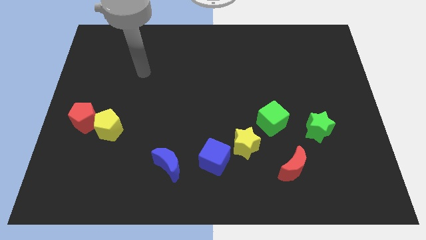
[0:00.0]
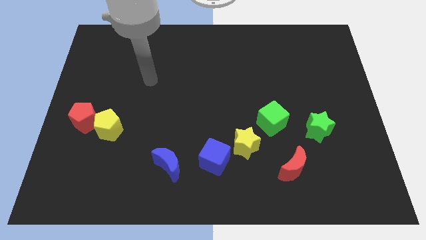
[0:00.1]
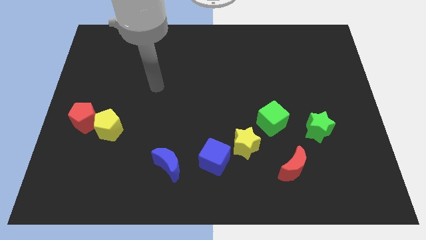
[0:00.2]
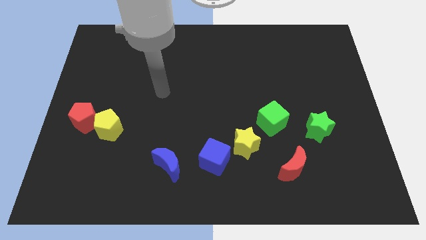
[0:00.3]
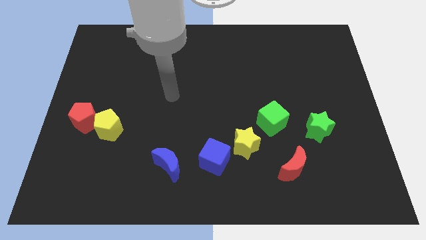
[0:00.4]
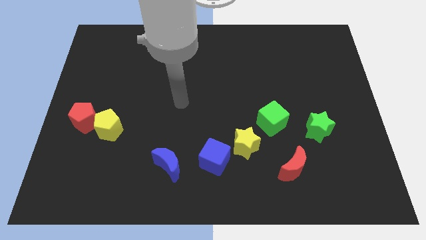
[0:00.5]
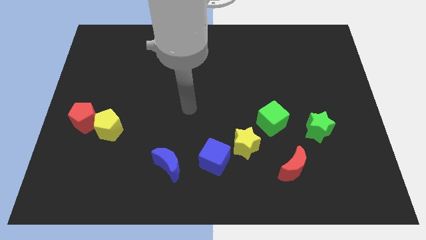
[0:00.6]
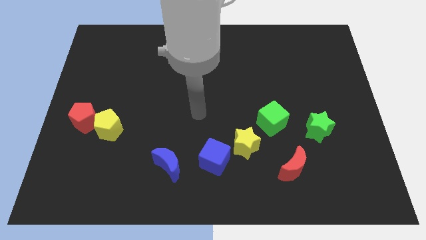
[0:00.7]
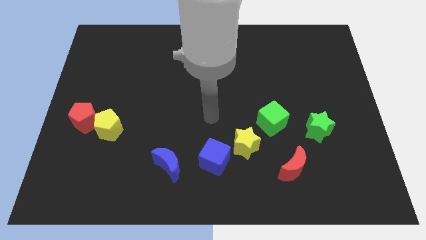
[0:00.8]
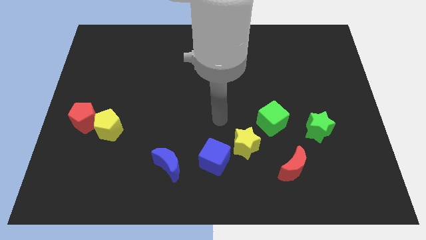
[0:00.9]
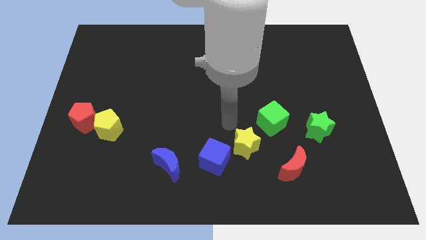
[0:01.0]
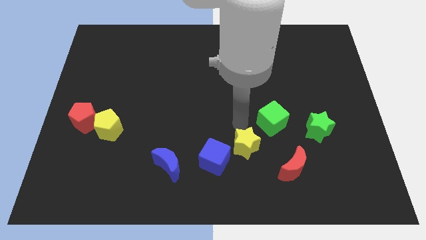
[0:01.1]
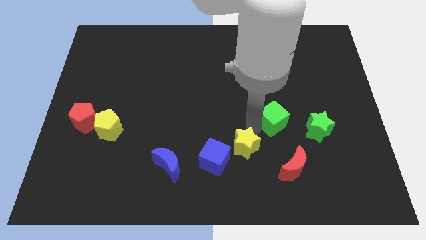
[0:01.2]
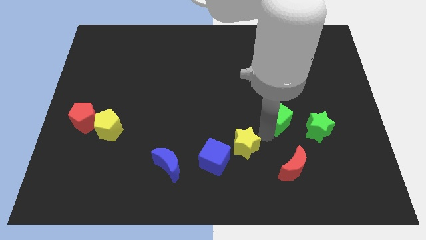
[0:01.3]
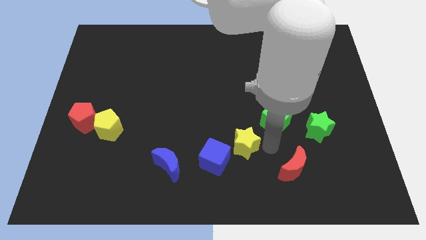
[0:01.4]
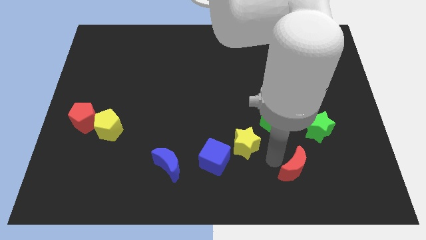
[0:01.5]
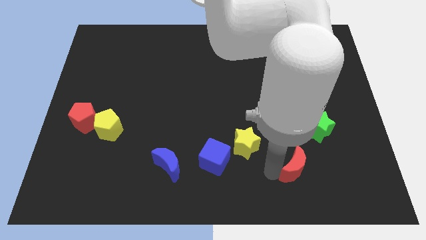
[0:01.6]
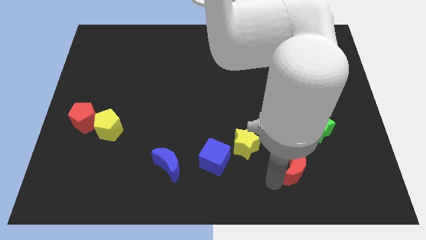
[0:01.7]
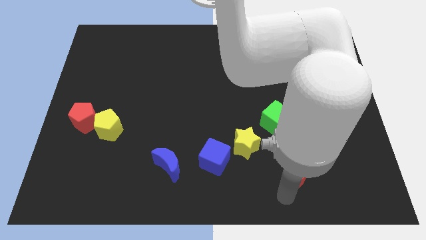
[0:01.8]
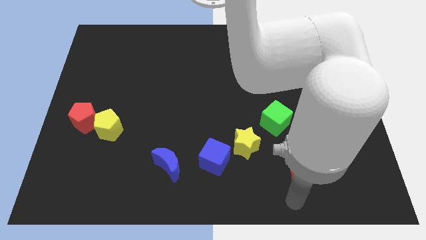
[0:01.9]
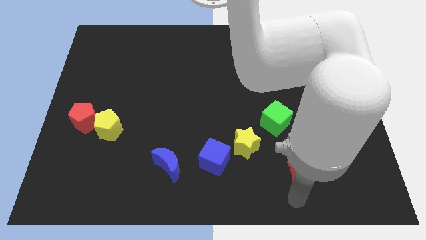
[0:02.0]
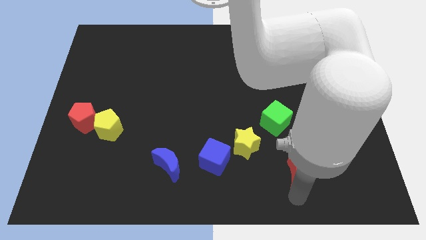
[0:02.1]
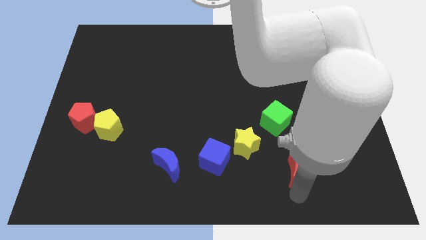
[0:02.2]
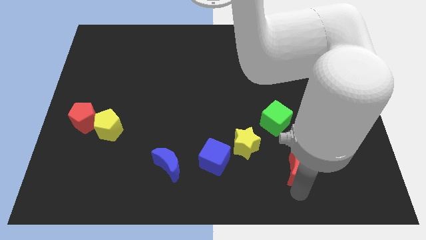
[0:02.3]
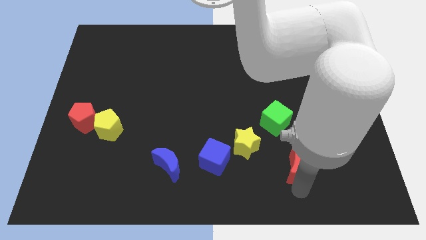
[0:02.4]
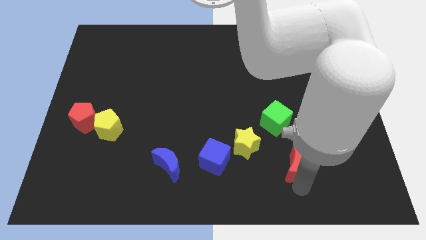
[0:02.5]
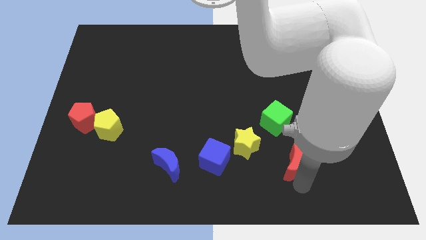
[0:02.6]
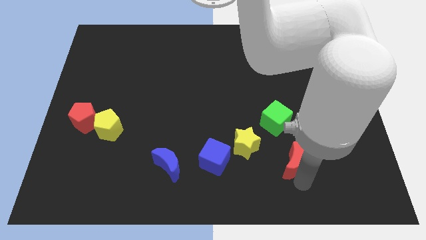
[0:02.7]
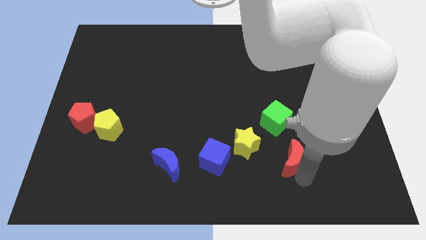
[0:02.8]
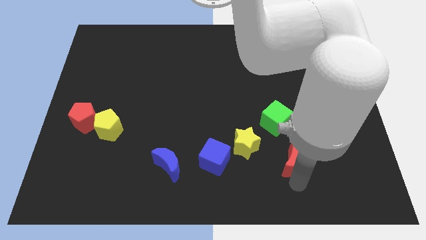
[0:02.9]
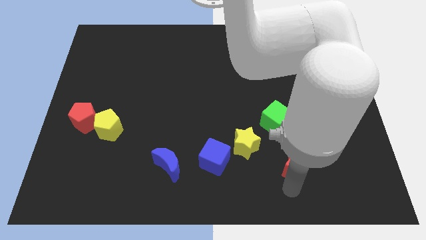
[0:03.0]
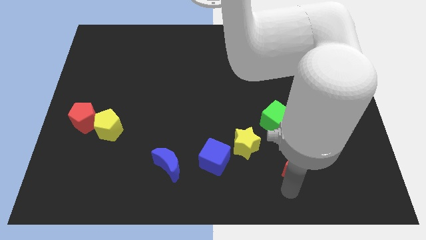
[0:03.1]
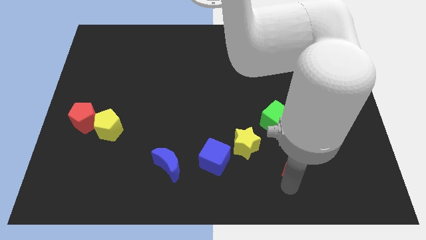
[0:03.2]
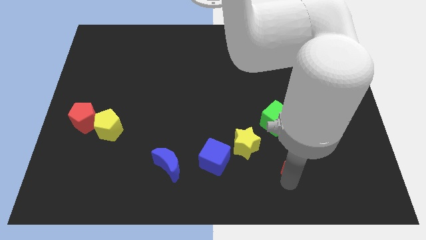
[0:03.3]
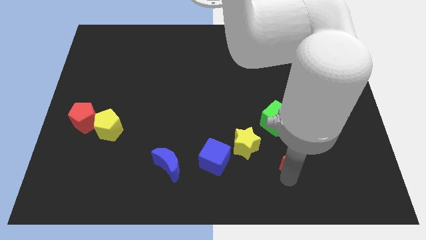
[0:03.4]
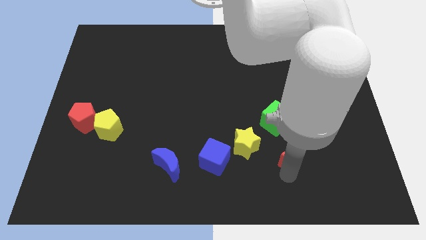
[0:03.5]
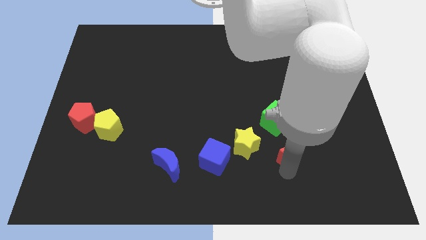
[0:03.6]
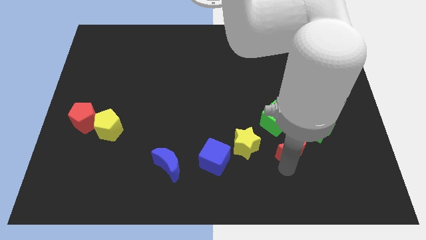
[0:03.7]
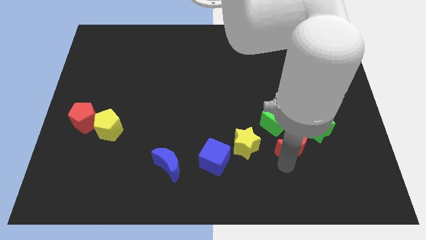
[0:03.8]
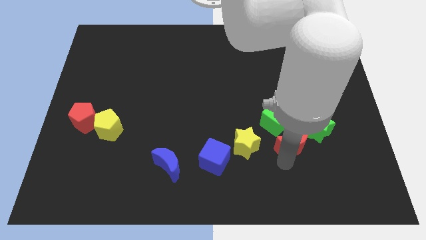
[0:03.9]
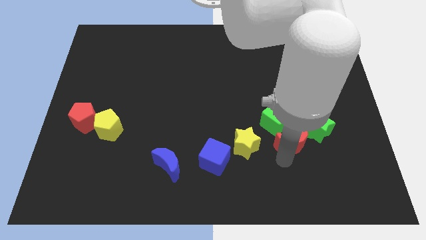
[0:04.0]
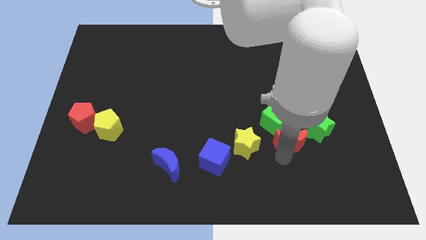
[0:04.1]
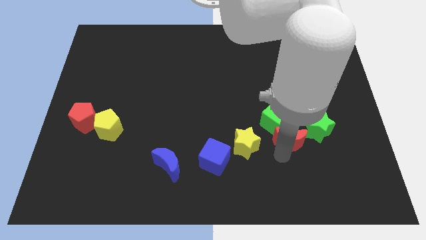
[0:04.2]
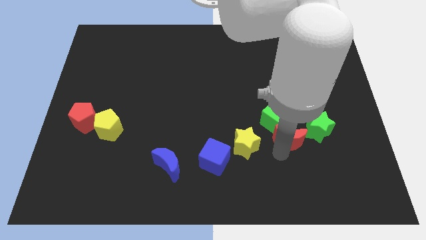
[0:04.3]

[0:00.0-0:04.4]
slide the red moon upwards a bit

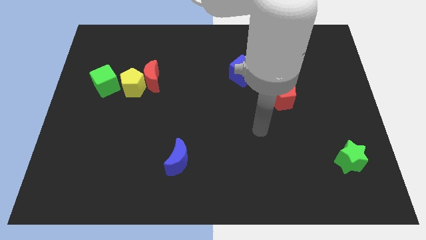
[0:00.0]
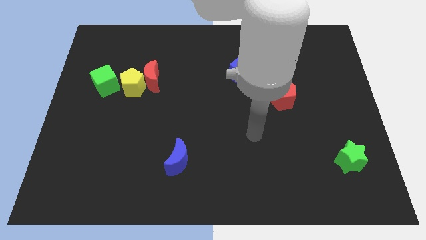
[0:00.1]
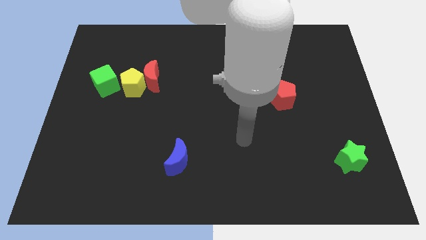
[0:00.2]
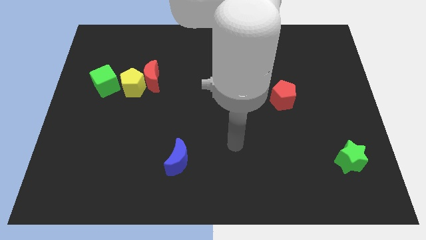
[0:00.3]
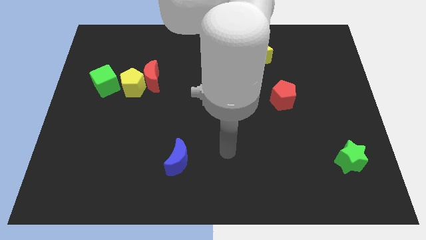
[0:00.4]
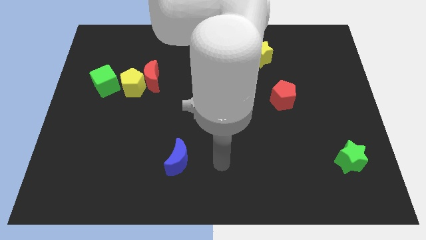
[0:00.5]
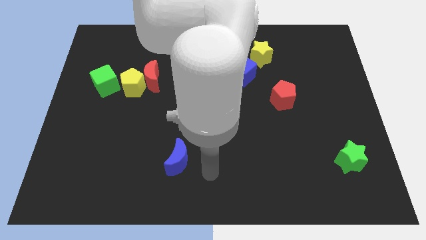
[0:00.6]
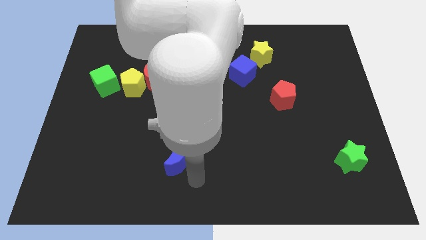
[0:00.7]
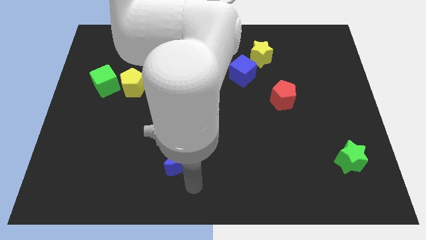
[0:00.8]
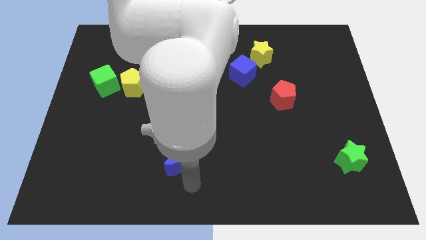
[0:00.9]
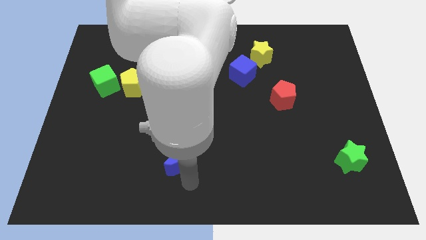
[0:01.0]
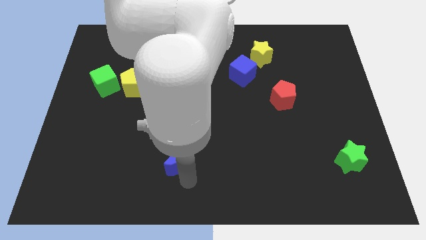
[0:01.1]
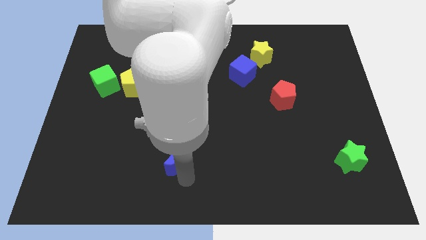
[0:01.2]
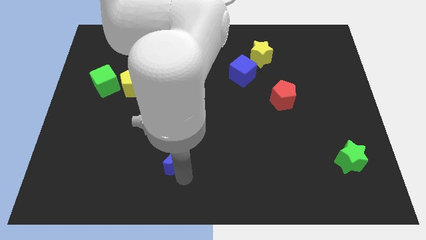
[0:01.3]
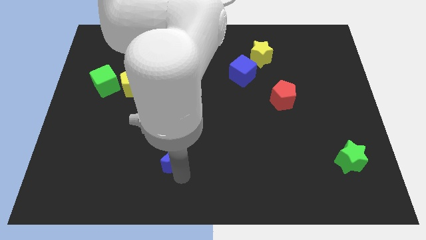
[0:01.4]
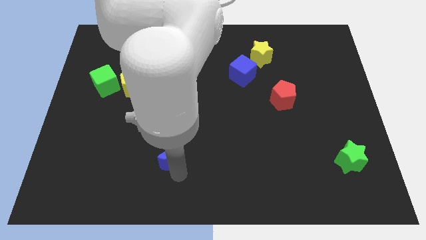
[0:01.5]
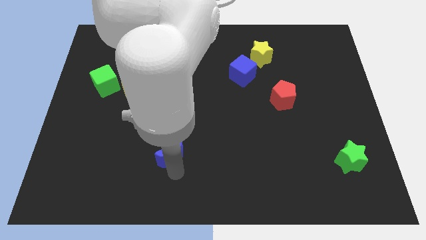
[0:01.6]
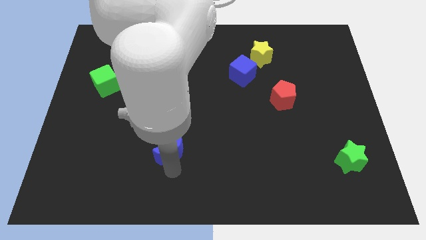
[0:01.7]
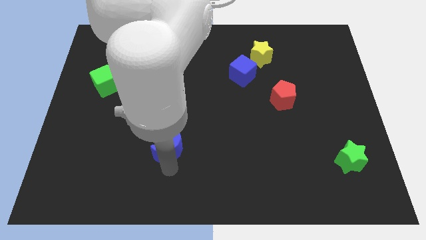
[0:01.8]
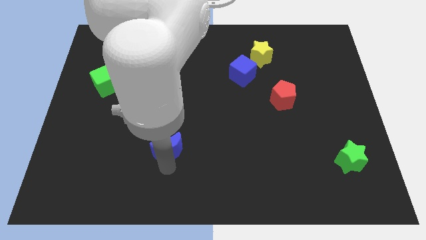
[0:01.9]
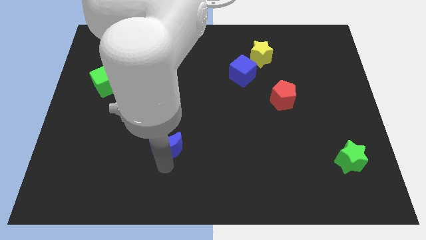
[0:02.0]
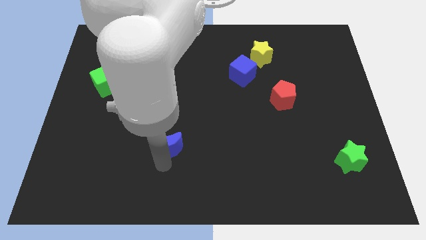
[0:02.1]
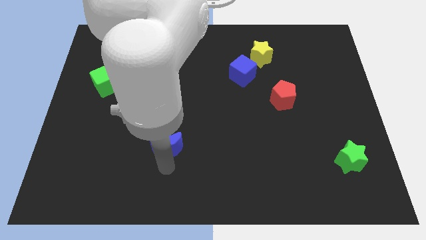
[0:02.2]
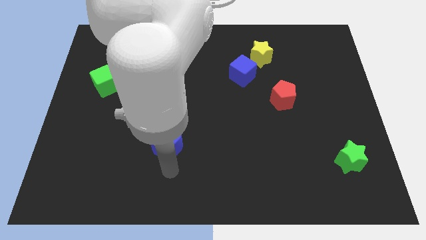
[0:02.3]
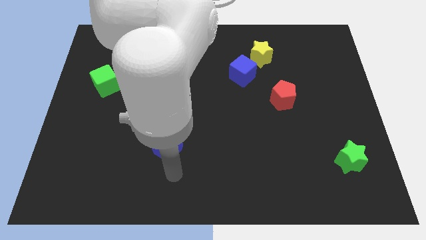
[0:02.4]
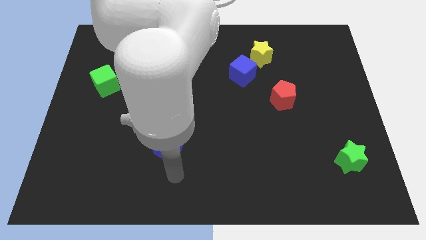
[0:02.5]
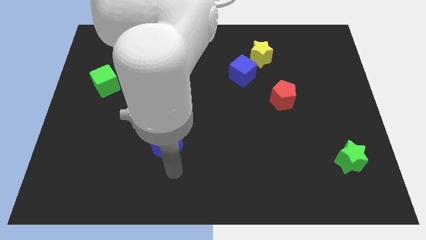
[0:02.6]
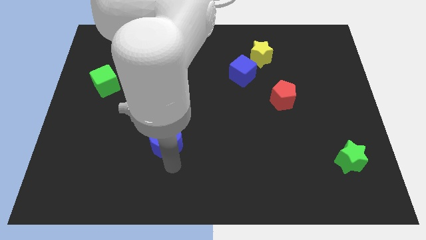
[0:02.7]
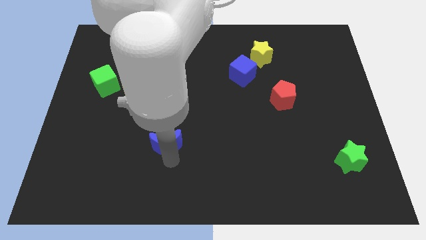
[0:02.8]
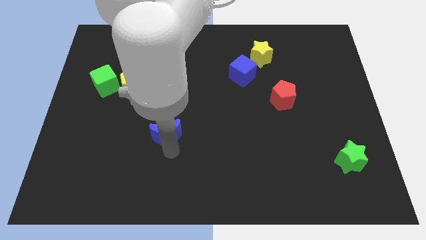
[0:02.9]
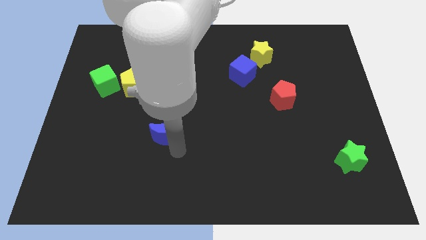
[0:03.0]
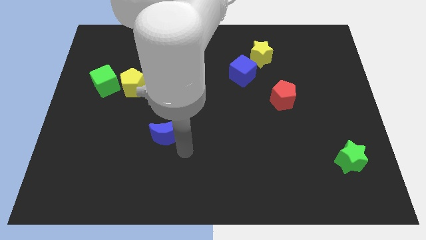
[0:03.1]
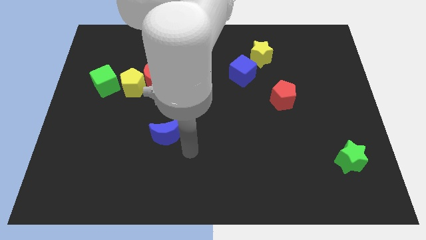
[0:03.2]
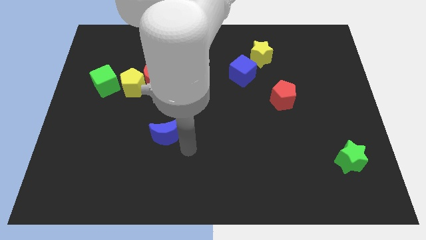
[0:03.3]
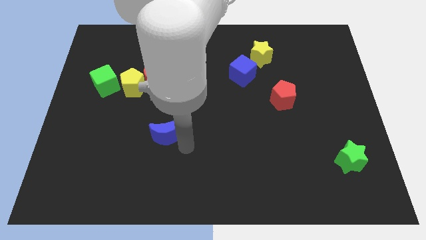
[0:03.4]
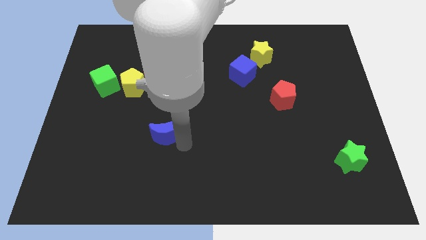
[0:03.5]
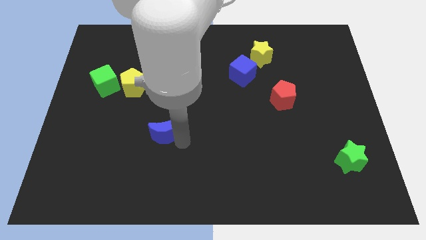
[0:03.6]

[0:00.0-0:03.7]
push the blue moon diagonally upwards and to the left a bit
